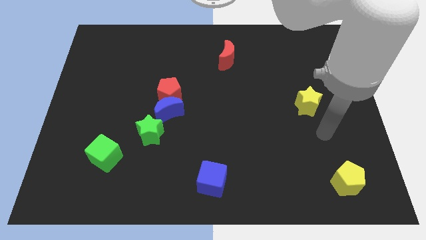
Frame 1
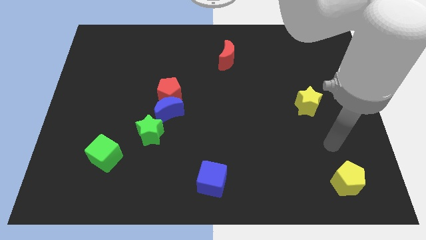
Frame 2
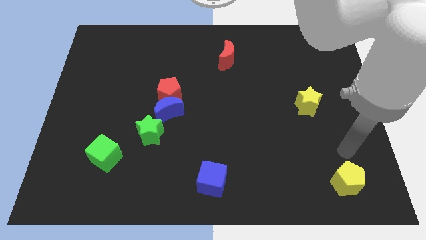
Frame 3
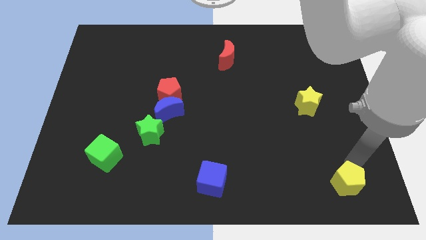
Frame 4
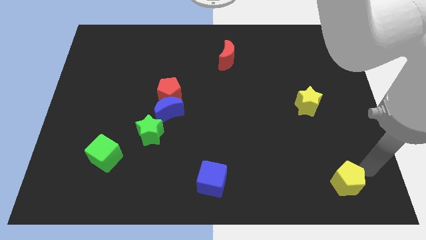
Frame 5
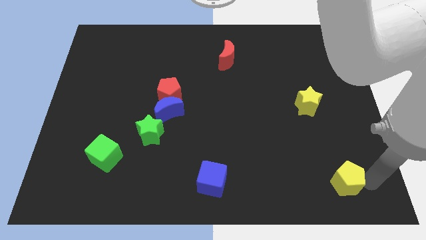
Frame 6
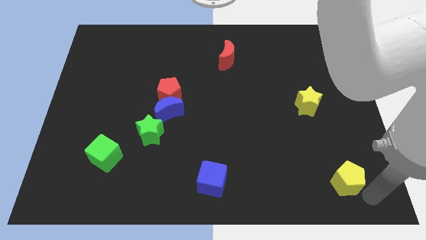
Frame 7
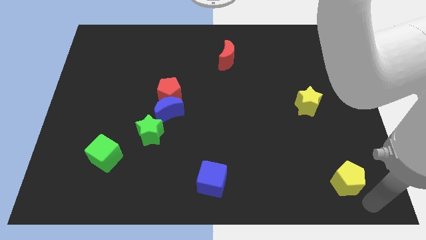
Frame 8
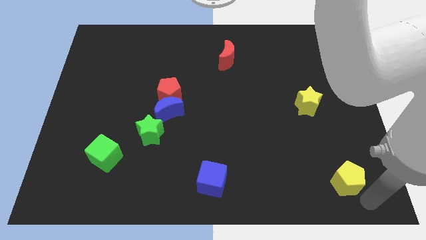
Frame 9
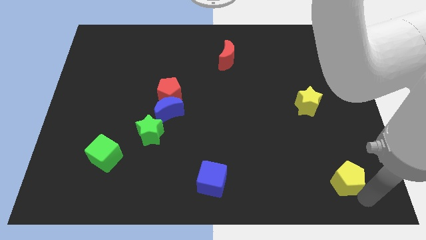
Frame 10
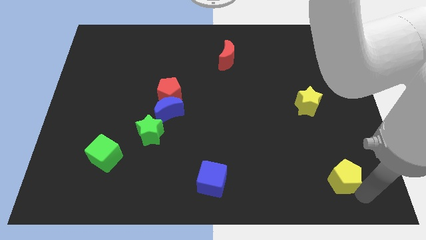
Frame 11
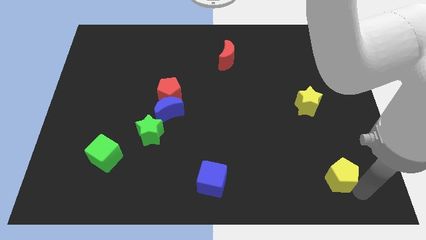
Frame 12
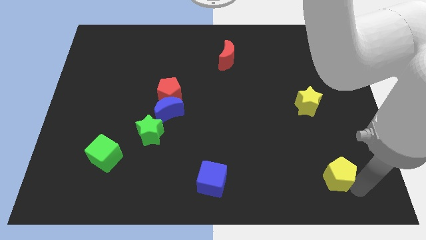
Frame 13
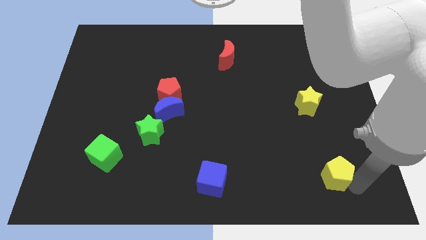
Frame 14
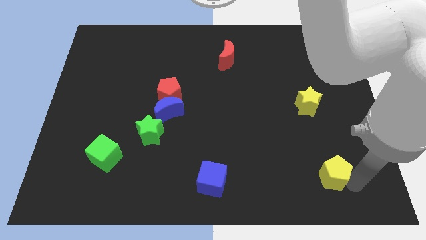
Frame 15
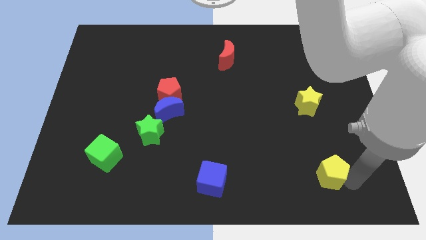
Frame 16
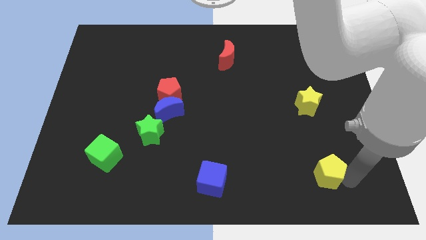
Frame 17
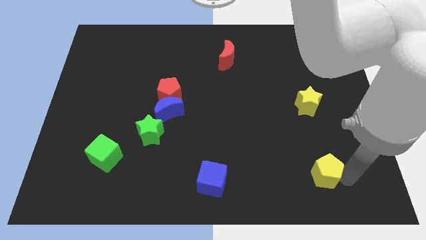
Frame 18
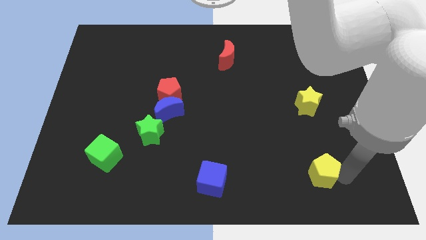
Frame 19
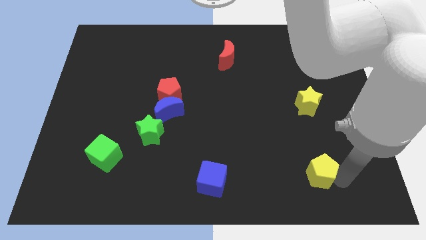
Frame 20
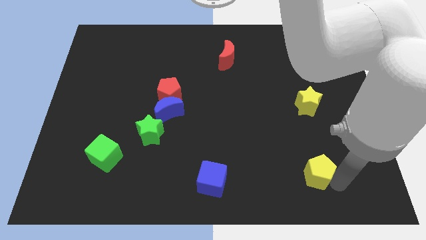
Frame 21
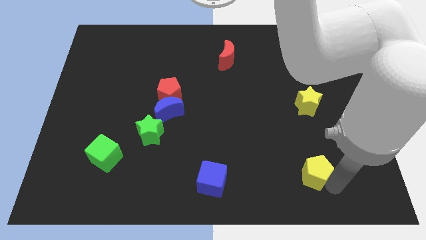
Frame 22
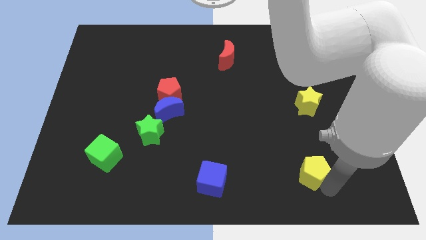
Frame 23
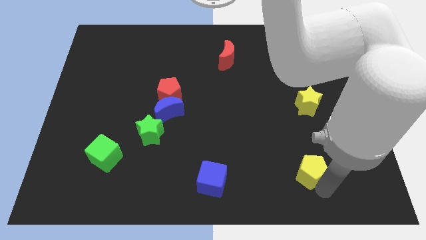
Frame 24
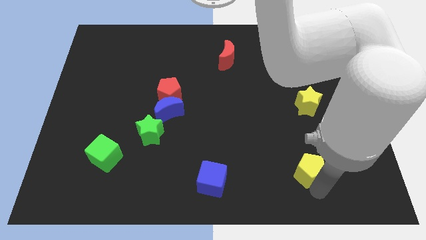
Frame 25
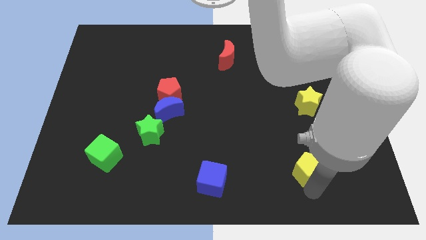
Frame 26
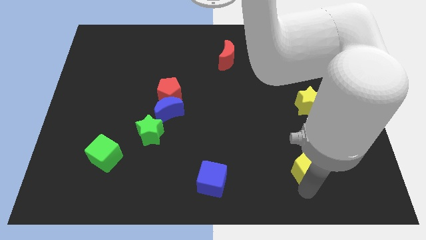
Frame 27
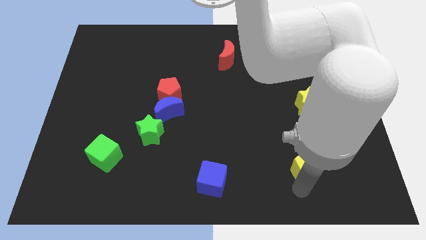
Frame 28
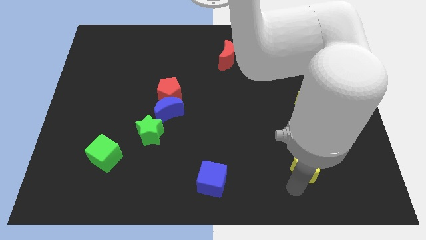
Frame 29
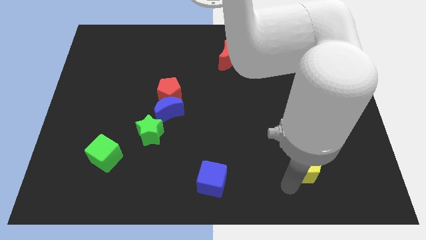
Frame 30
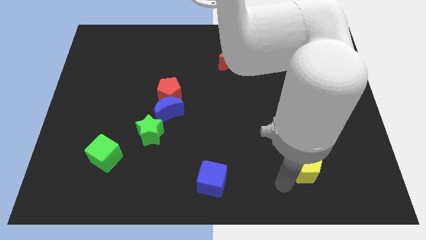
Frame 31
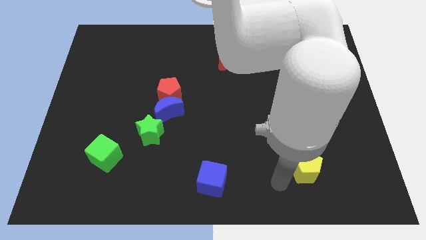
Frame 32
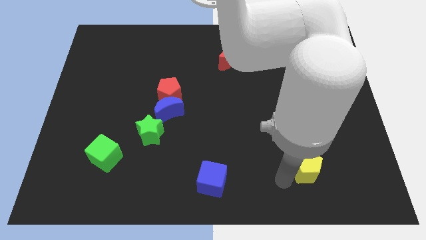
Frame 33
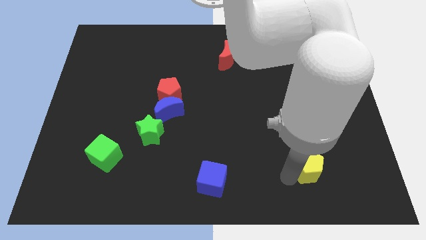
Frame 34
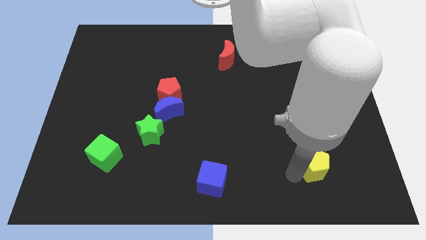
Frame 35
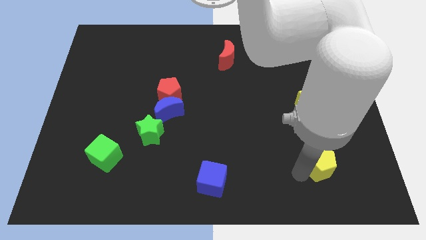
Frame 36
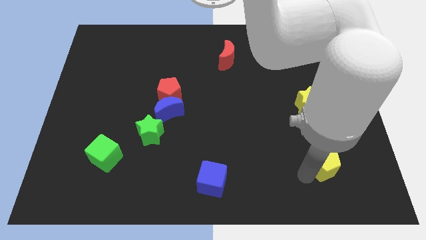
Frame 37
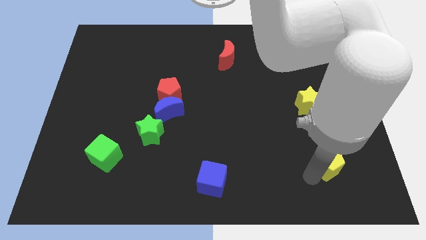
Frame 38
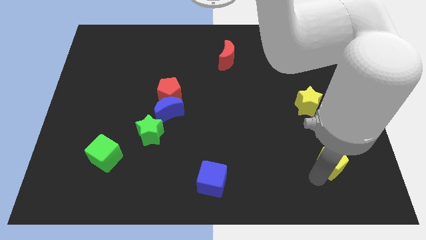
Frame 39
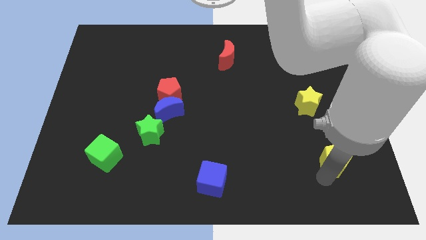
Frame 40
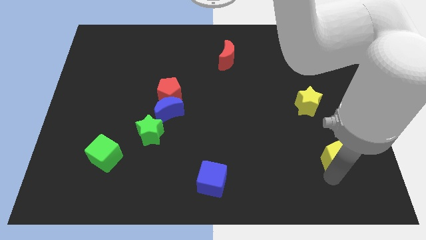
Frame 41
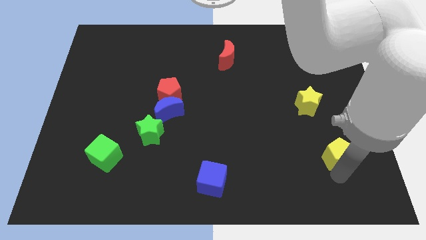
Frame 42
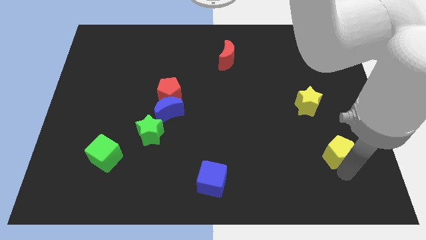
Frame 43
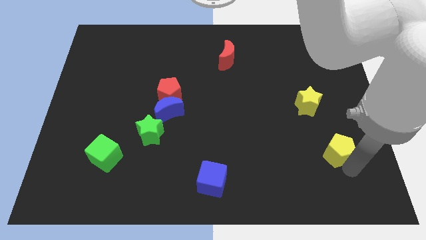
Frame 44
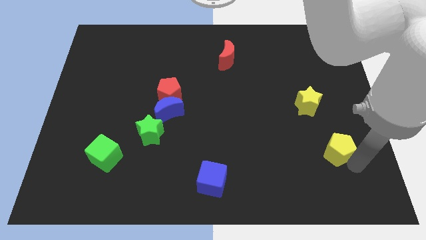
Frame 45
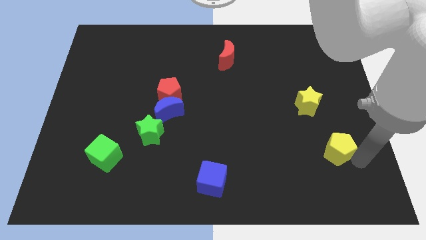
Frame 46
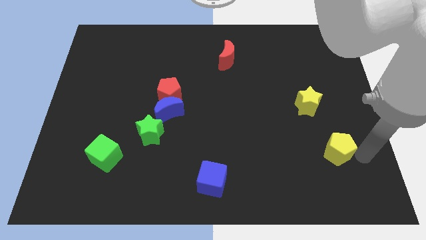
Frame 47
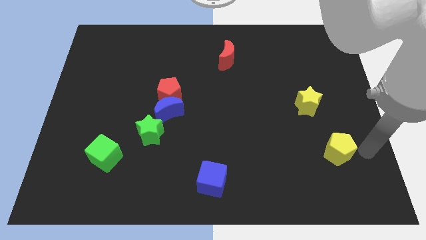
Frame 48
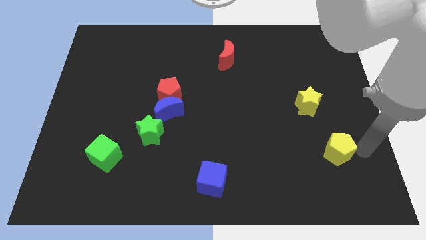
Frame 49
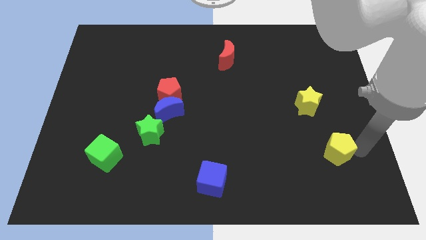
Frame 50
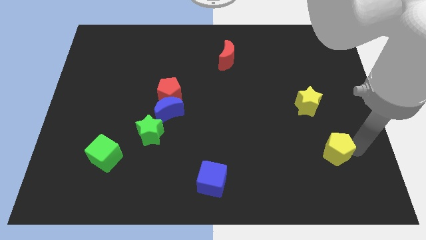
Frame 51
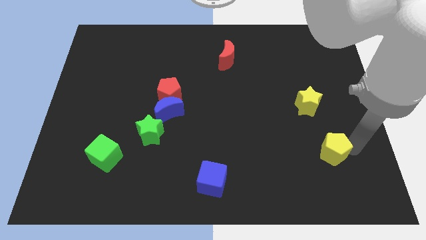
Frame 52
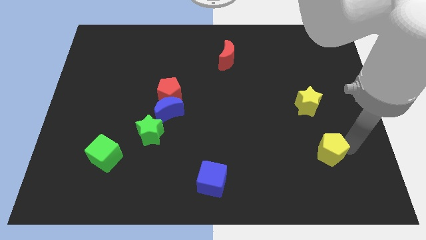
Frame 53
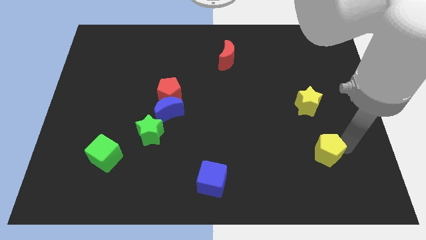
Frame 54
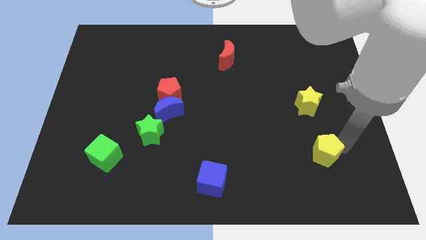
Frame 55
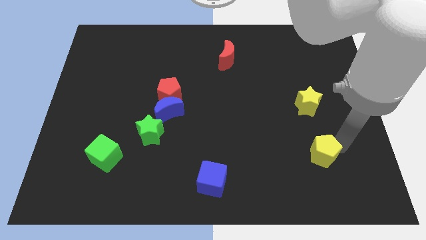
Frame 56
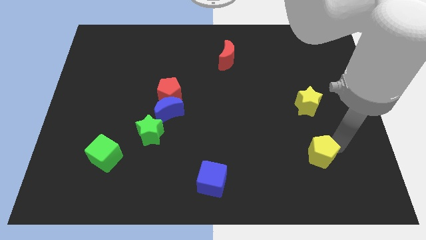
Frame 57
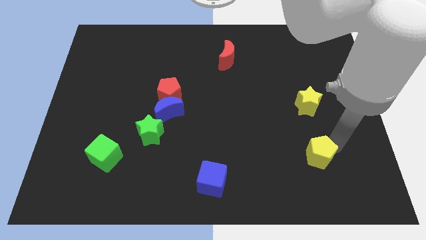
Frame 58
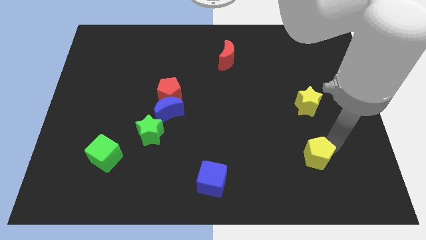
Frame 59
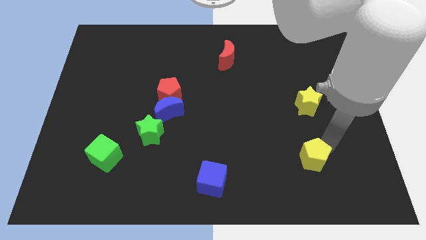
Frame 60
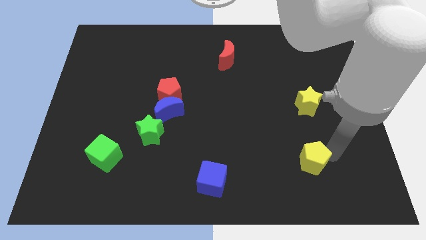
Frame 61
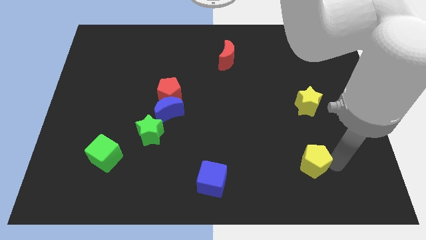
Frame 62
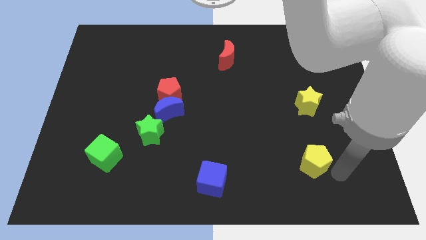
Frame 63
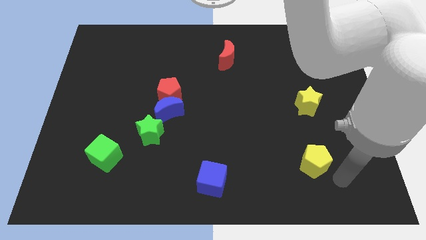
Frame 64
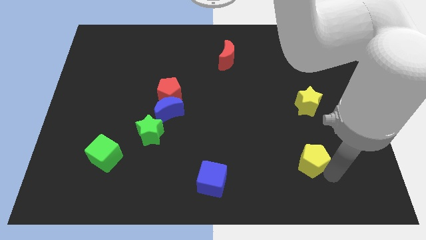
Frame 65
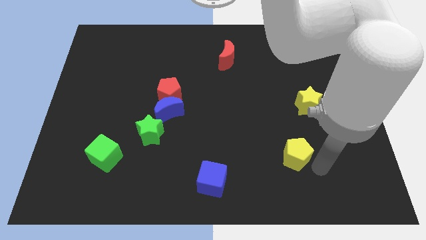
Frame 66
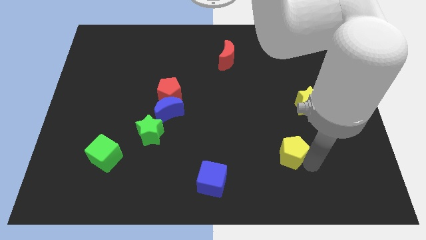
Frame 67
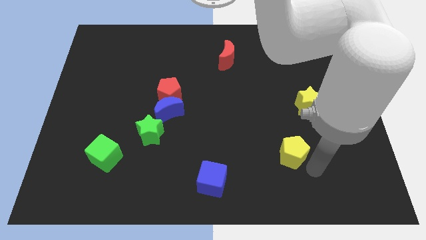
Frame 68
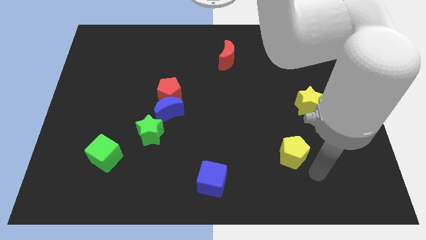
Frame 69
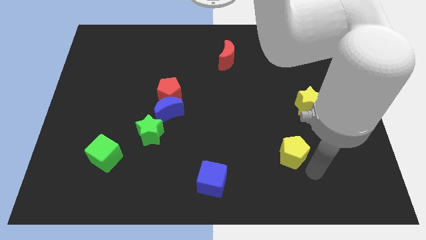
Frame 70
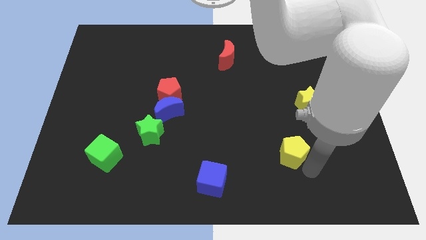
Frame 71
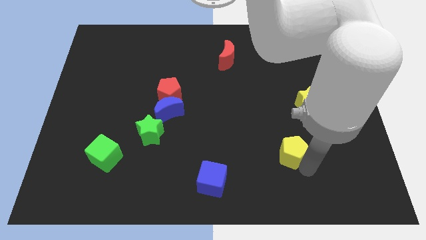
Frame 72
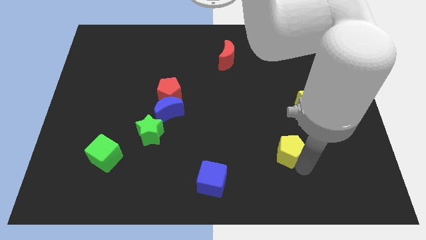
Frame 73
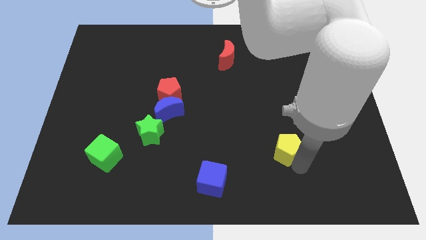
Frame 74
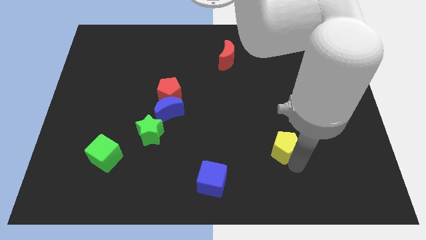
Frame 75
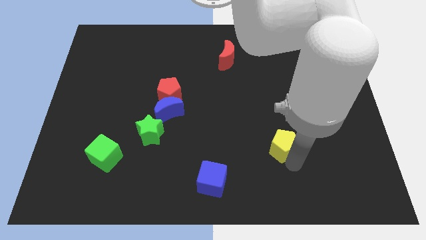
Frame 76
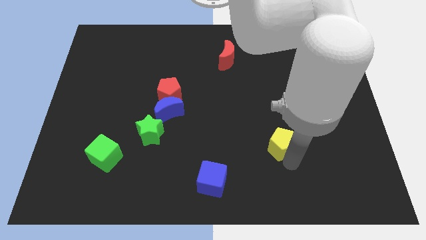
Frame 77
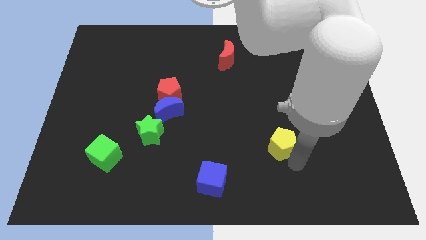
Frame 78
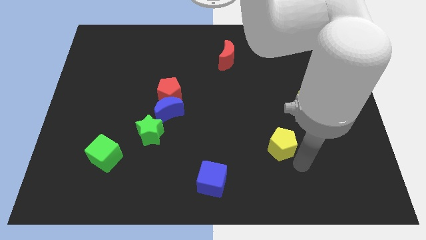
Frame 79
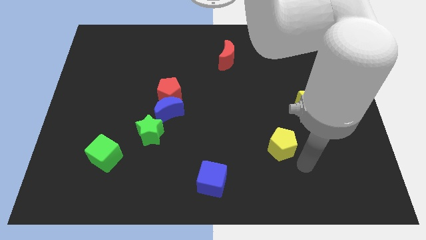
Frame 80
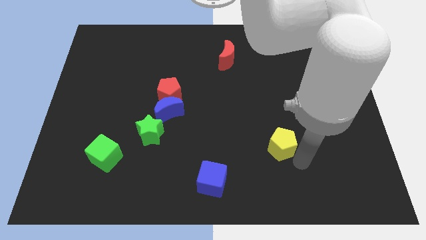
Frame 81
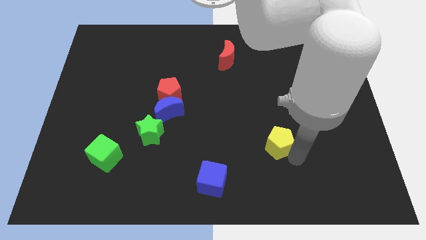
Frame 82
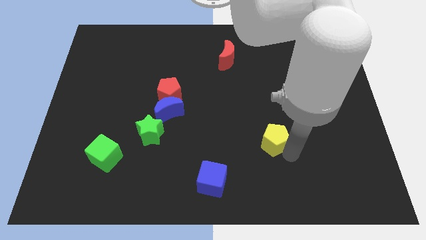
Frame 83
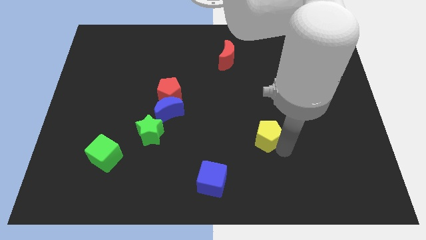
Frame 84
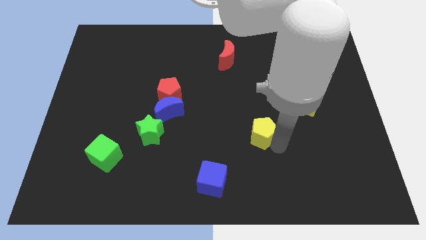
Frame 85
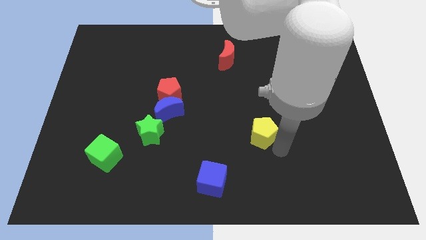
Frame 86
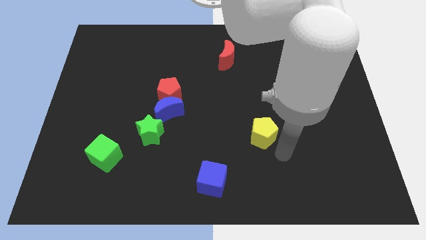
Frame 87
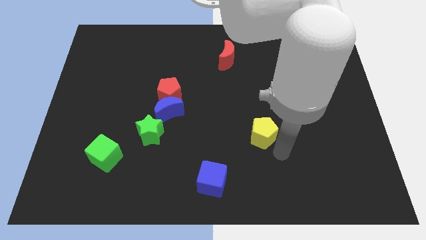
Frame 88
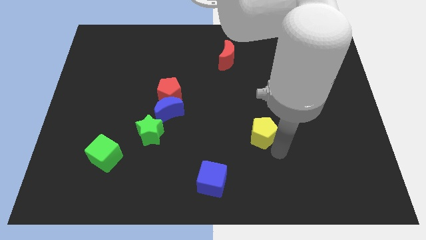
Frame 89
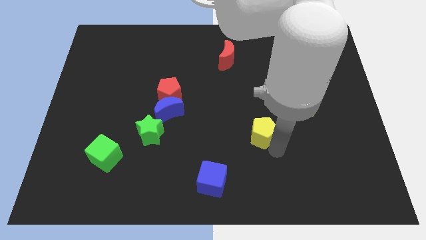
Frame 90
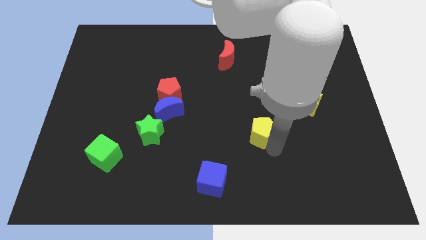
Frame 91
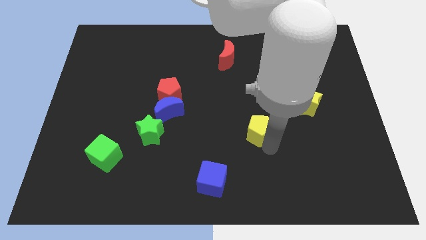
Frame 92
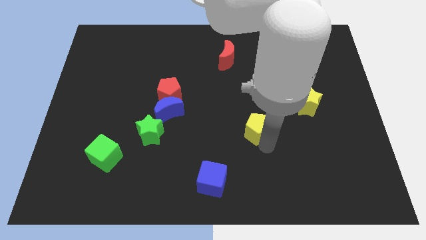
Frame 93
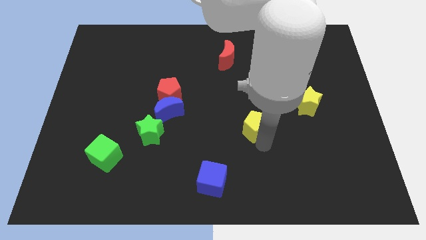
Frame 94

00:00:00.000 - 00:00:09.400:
put the yellow pentagon to the center of the board
